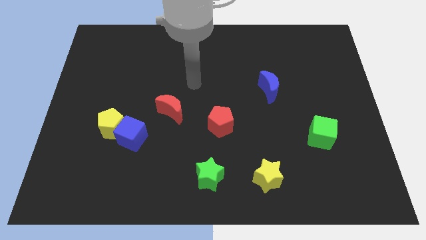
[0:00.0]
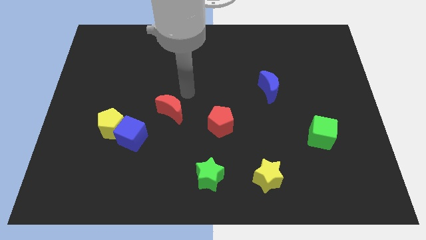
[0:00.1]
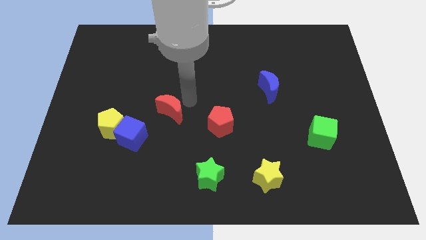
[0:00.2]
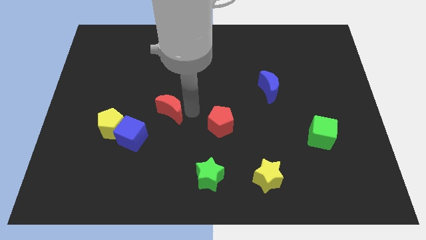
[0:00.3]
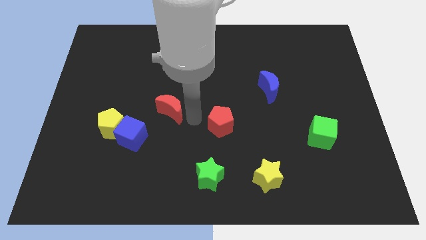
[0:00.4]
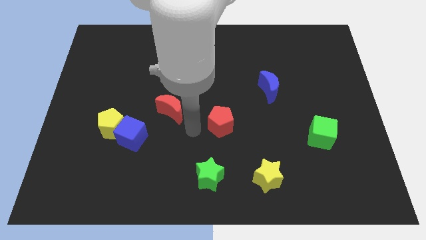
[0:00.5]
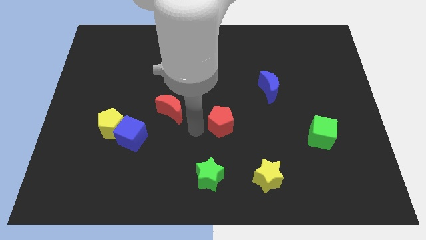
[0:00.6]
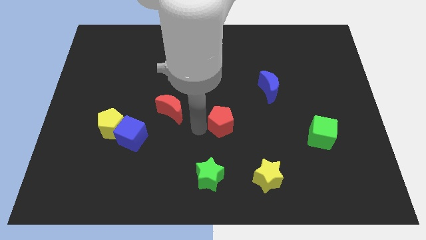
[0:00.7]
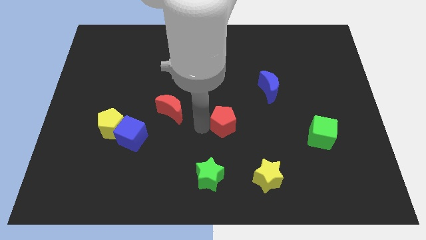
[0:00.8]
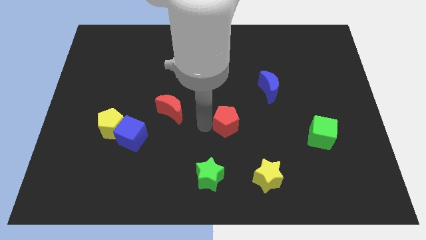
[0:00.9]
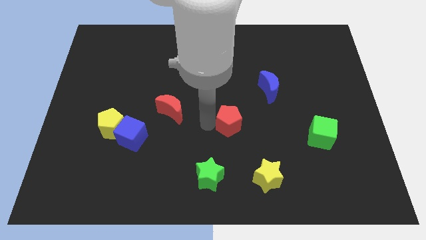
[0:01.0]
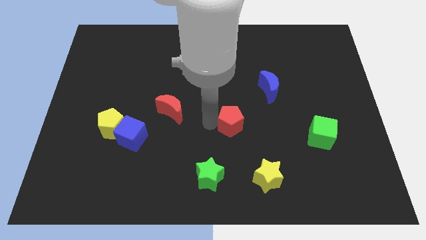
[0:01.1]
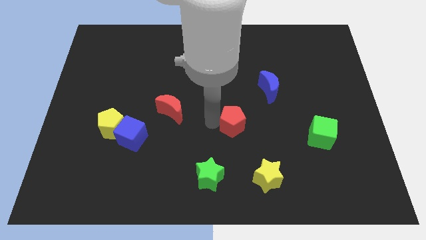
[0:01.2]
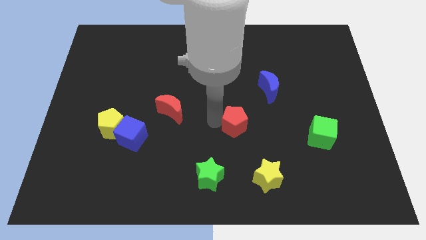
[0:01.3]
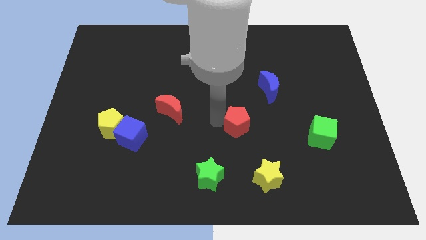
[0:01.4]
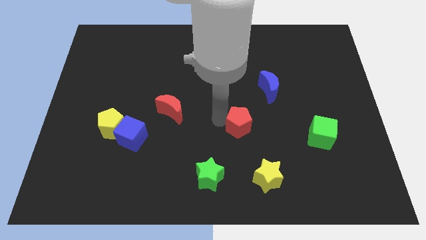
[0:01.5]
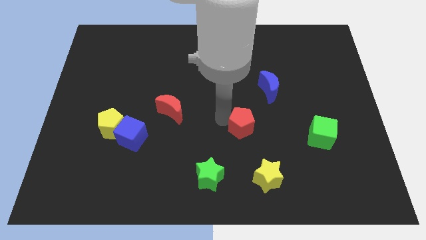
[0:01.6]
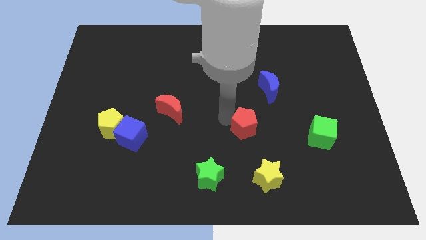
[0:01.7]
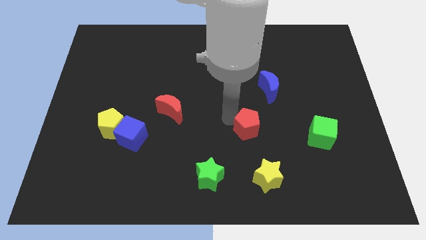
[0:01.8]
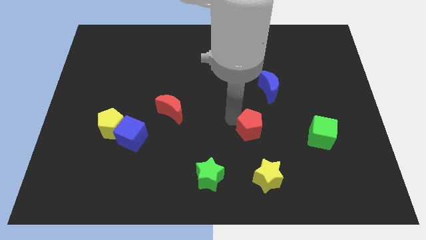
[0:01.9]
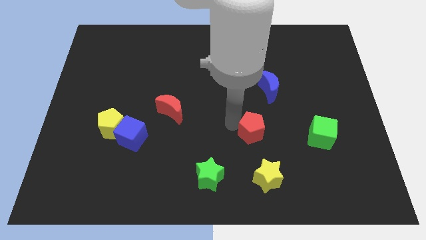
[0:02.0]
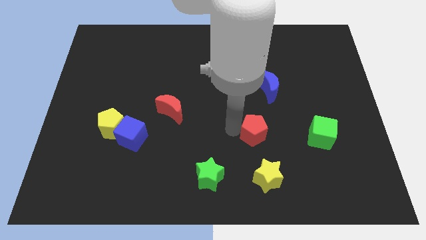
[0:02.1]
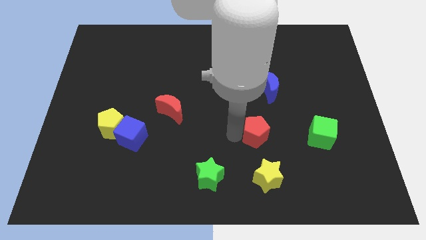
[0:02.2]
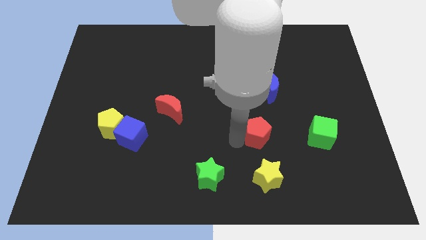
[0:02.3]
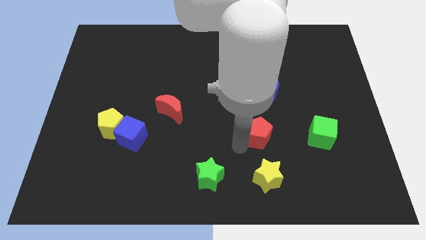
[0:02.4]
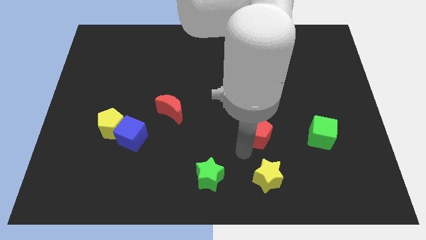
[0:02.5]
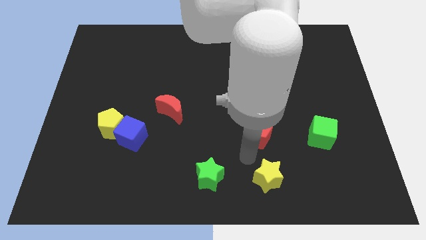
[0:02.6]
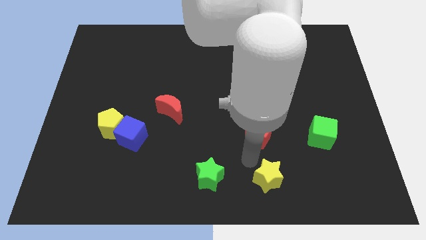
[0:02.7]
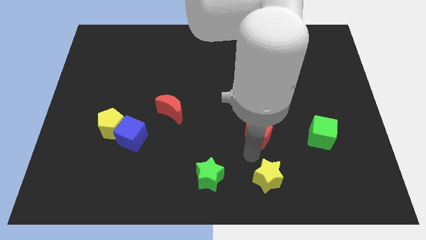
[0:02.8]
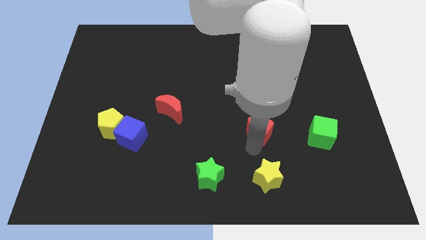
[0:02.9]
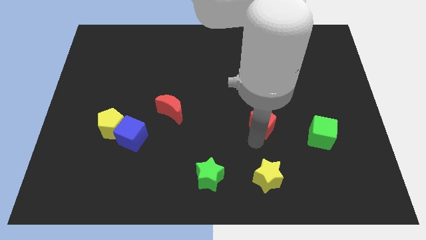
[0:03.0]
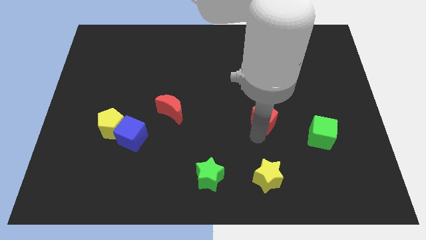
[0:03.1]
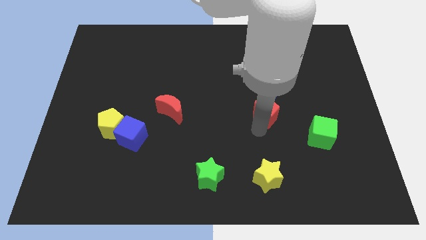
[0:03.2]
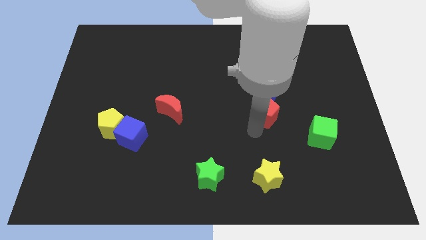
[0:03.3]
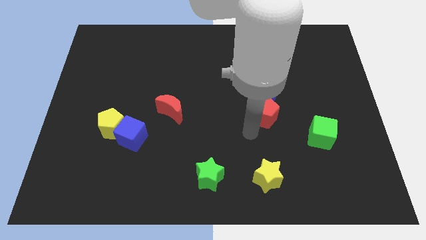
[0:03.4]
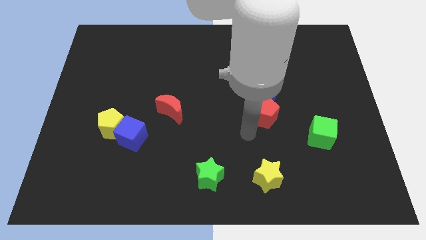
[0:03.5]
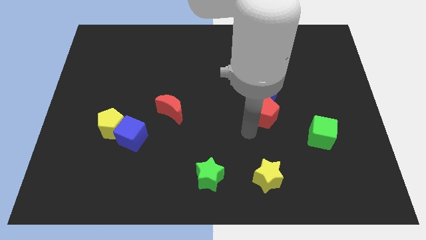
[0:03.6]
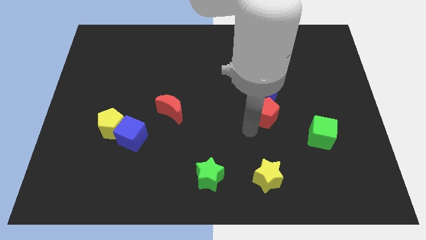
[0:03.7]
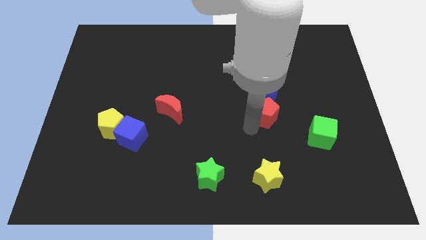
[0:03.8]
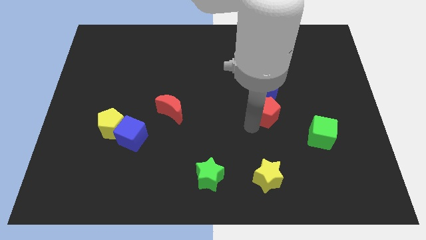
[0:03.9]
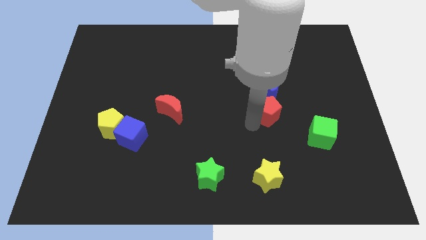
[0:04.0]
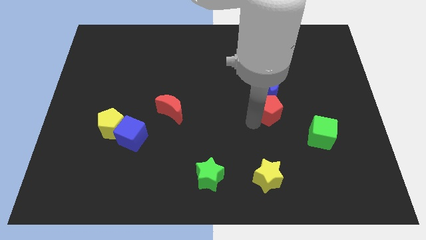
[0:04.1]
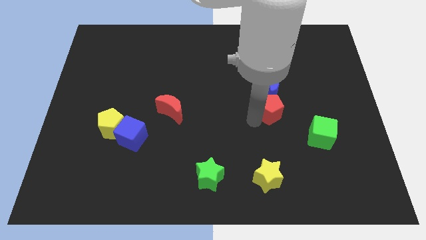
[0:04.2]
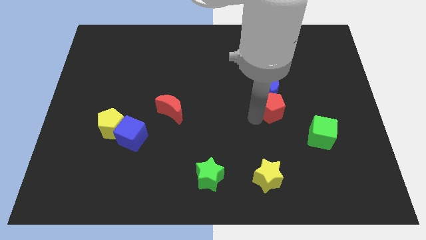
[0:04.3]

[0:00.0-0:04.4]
push the red pentagon diagonally down and to the right of the blue moon

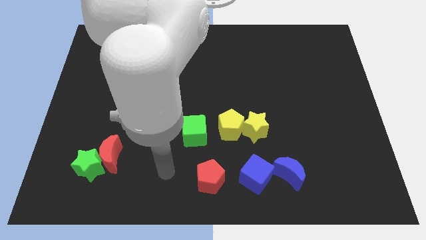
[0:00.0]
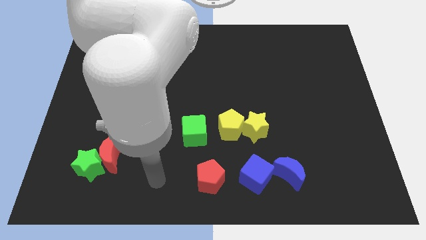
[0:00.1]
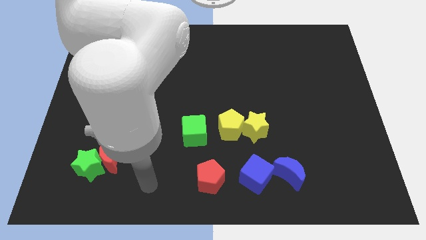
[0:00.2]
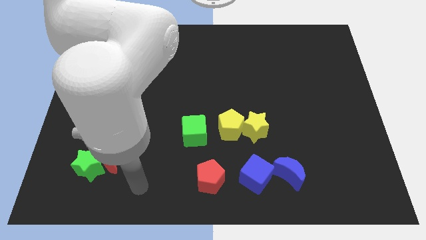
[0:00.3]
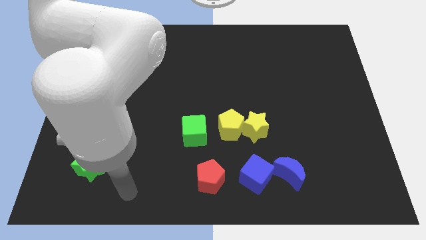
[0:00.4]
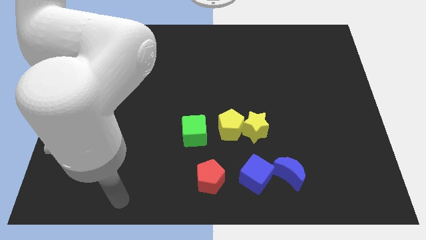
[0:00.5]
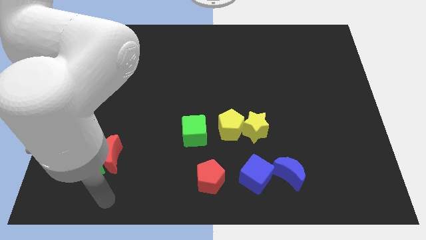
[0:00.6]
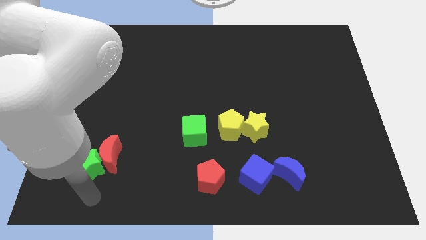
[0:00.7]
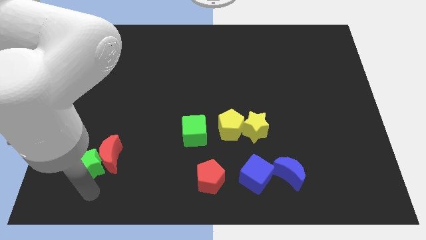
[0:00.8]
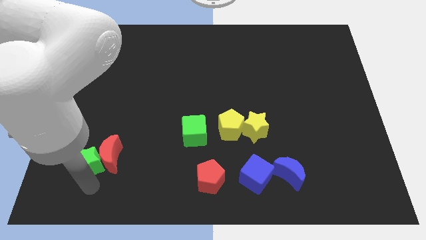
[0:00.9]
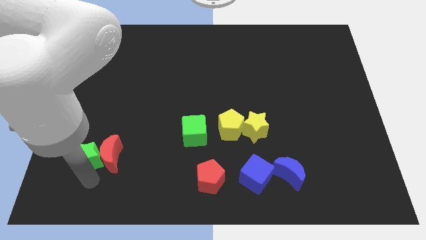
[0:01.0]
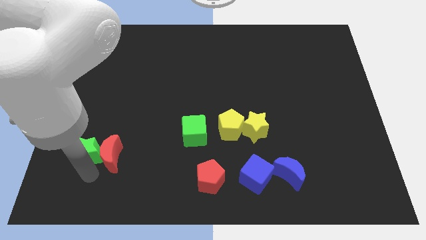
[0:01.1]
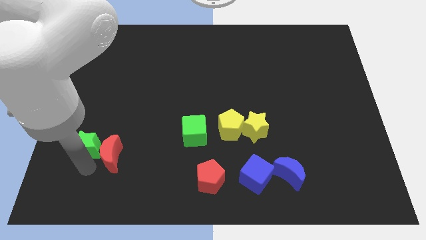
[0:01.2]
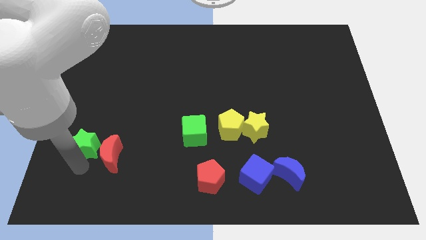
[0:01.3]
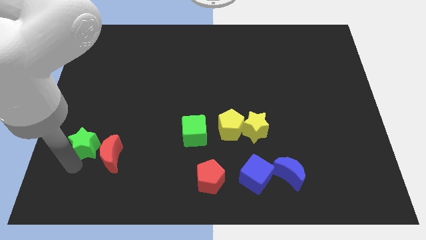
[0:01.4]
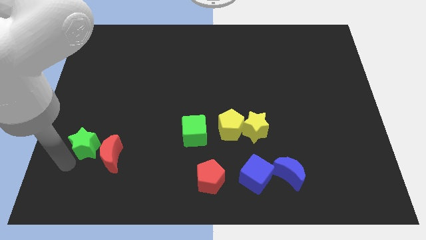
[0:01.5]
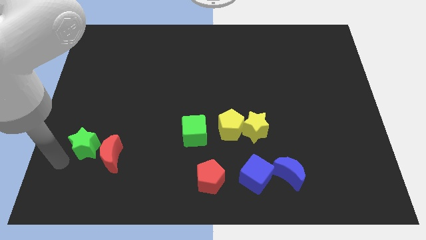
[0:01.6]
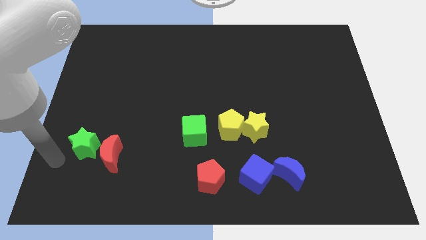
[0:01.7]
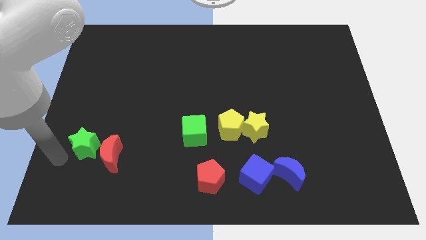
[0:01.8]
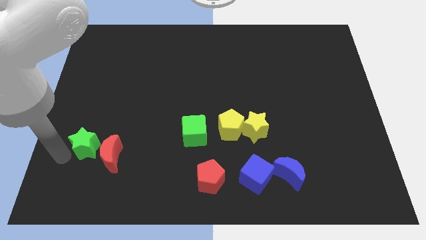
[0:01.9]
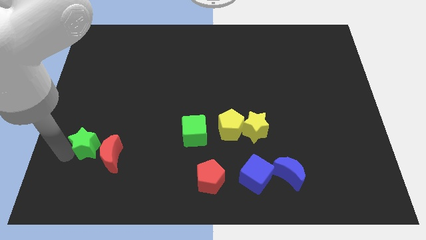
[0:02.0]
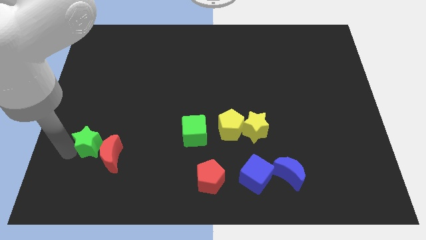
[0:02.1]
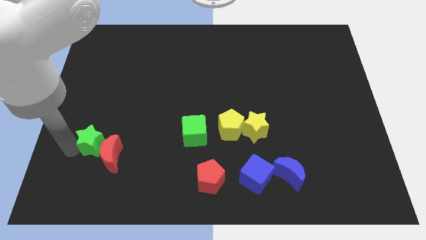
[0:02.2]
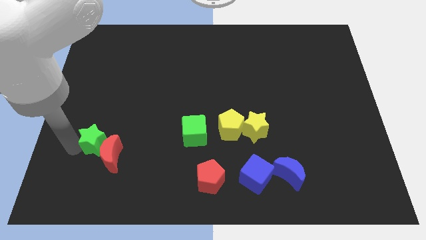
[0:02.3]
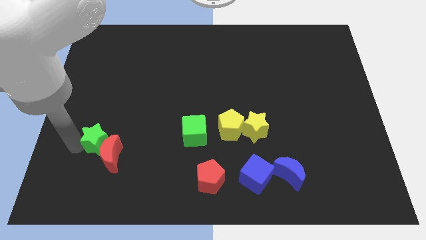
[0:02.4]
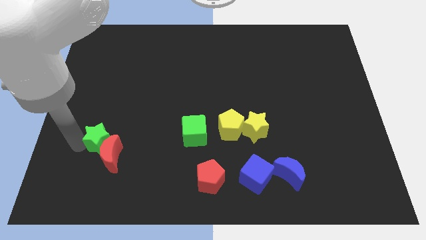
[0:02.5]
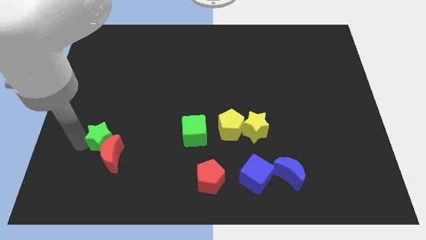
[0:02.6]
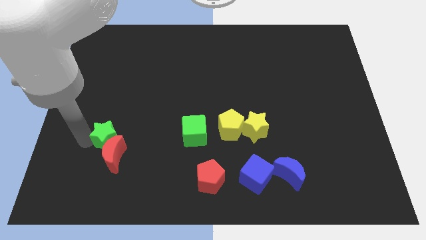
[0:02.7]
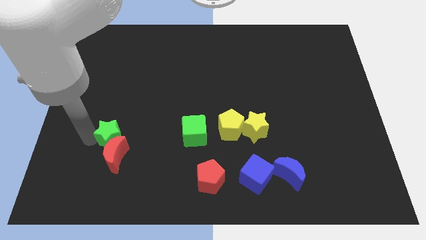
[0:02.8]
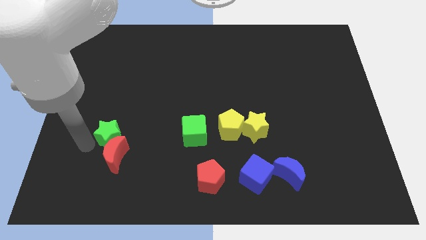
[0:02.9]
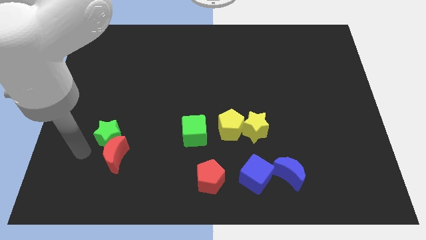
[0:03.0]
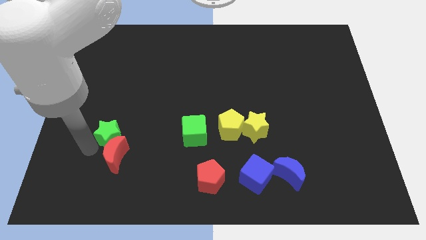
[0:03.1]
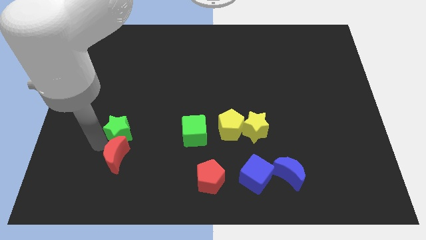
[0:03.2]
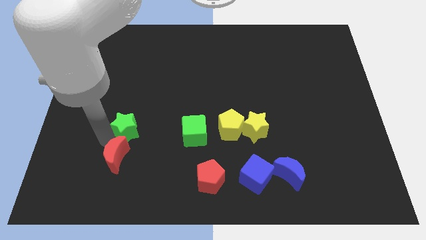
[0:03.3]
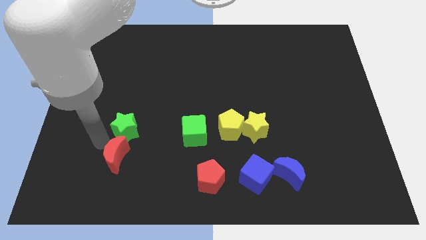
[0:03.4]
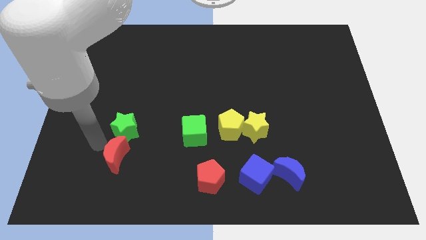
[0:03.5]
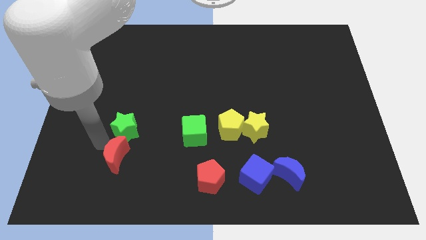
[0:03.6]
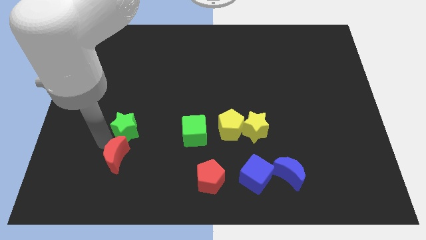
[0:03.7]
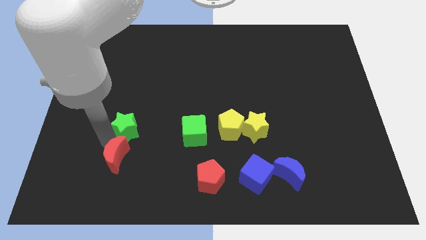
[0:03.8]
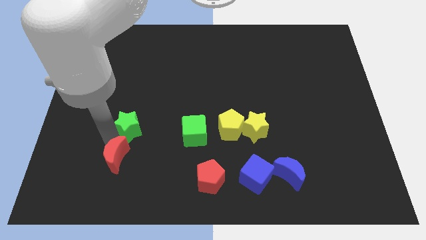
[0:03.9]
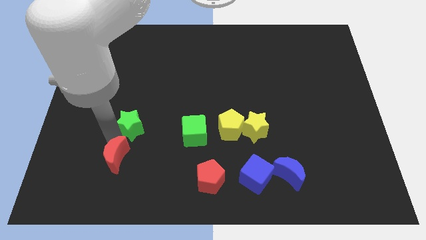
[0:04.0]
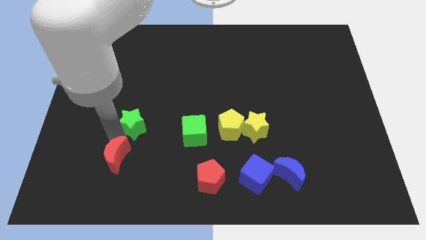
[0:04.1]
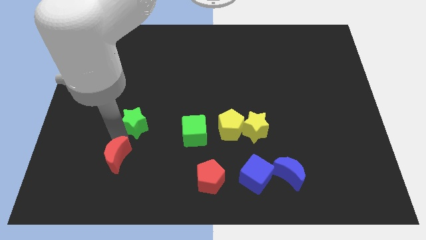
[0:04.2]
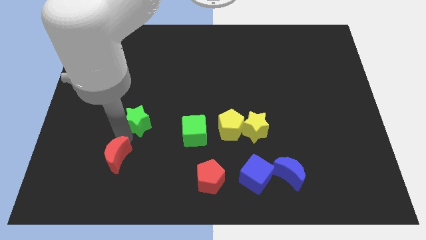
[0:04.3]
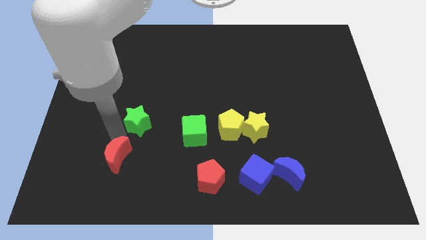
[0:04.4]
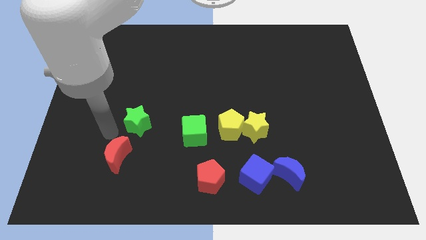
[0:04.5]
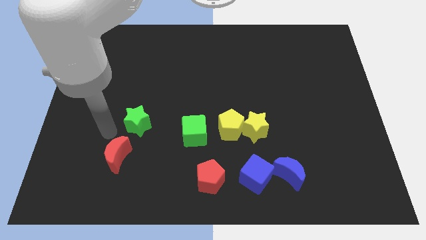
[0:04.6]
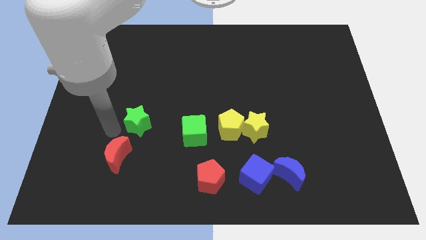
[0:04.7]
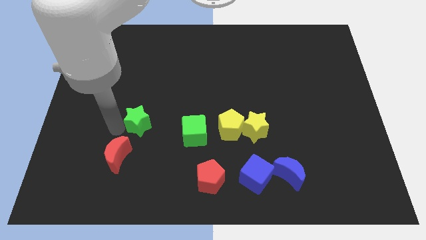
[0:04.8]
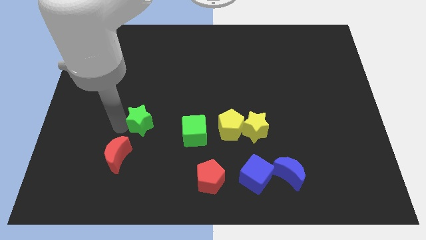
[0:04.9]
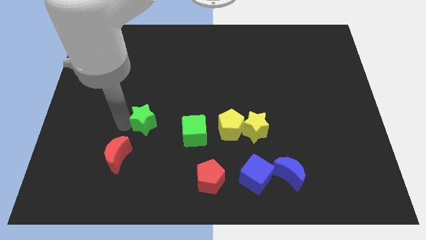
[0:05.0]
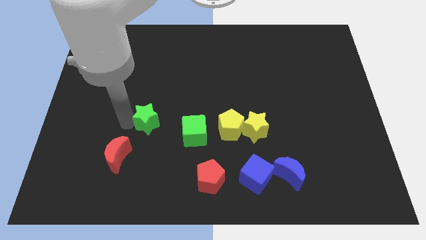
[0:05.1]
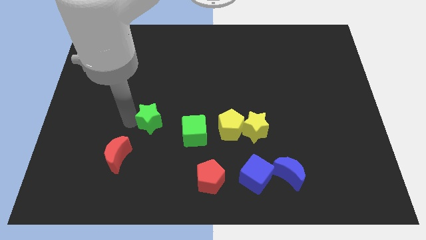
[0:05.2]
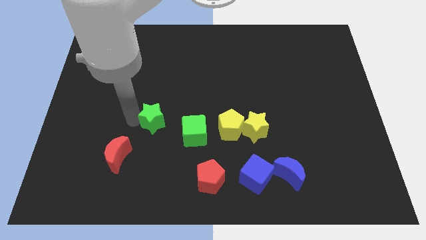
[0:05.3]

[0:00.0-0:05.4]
slide the green star to the top left of the green cube
